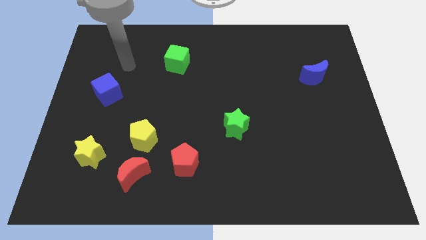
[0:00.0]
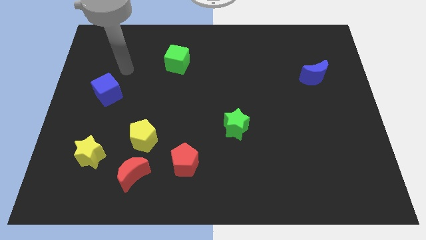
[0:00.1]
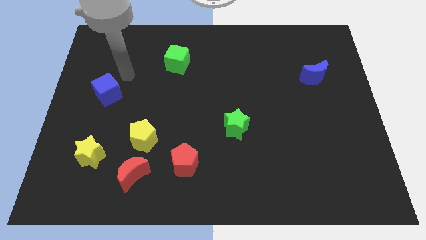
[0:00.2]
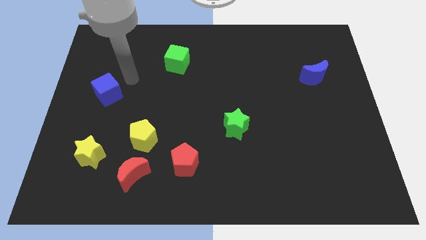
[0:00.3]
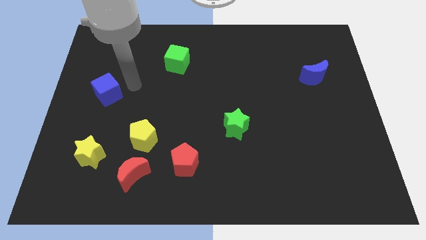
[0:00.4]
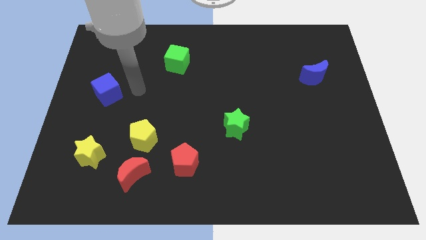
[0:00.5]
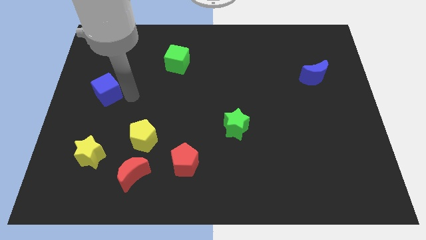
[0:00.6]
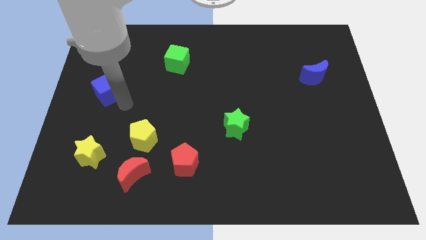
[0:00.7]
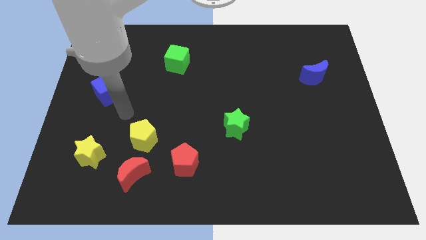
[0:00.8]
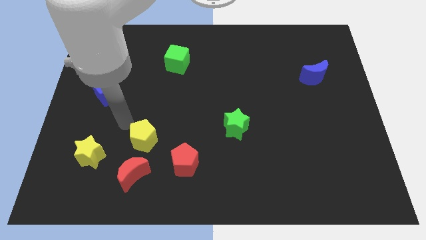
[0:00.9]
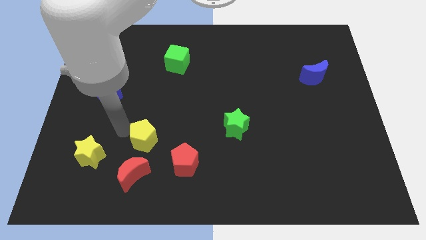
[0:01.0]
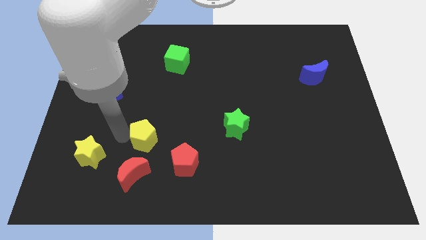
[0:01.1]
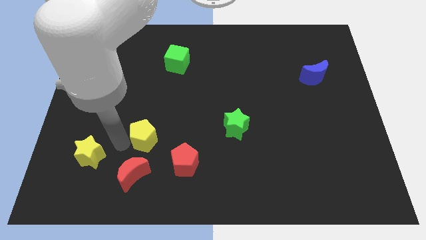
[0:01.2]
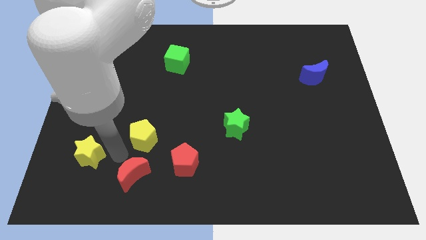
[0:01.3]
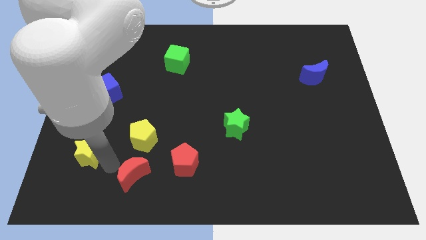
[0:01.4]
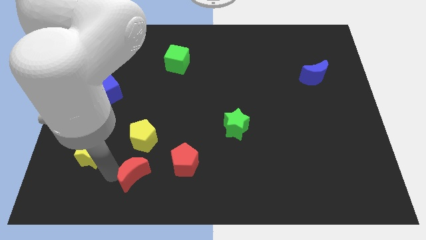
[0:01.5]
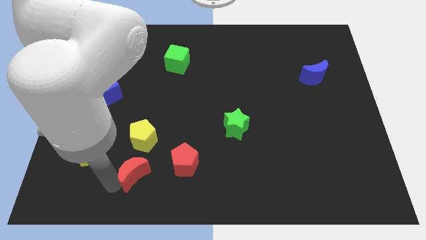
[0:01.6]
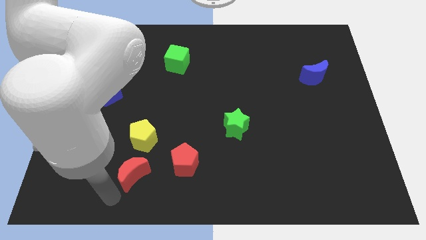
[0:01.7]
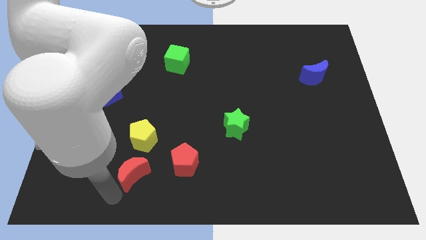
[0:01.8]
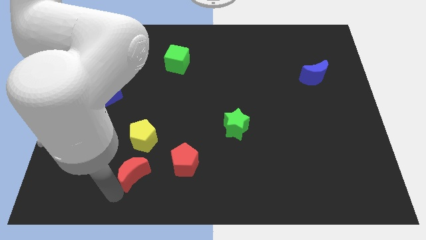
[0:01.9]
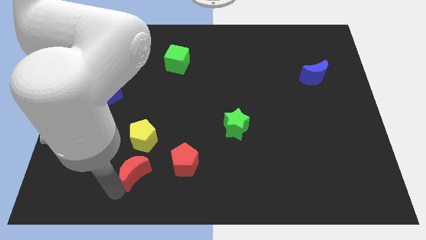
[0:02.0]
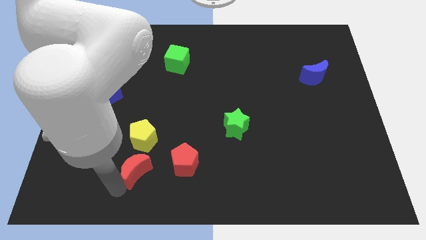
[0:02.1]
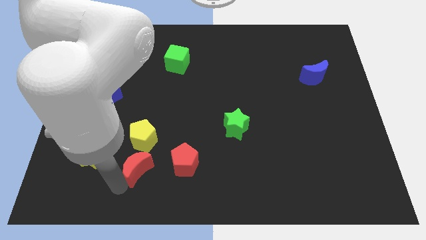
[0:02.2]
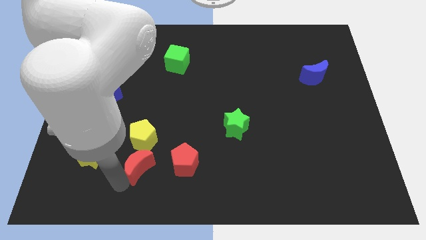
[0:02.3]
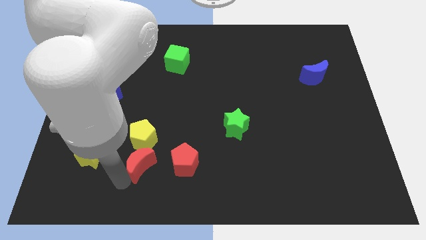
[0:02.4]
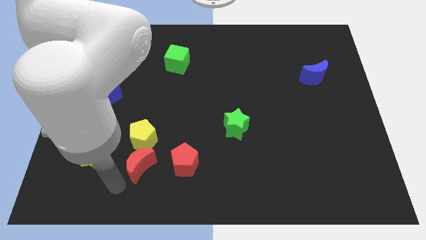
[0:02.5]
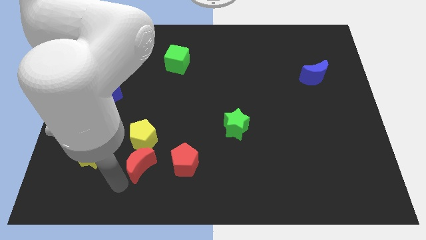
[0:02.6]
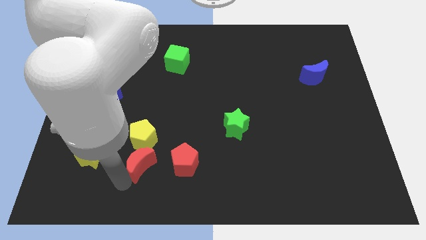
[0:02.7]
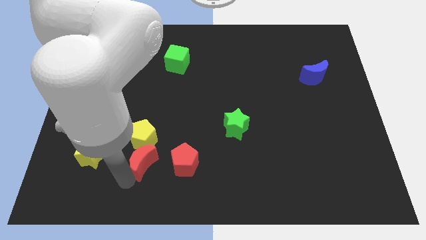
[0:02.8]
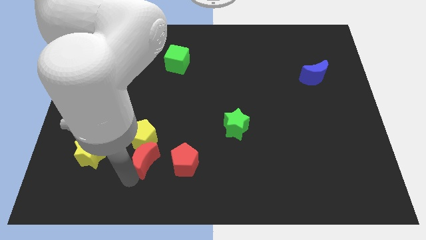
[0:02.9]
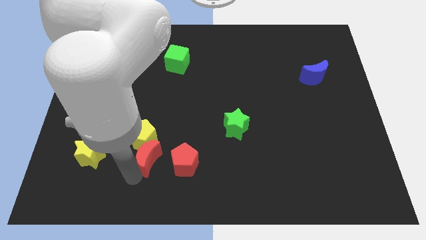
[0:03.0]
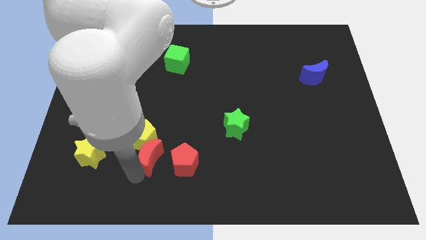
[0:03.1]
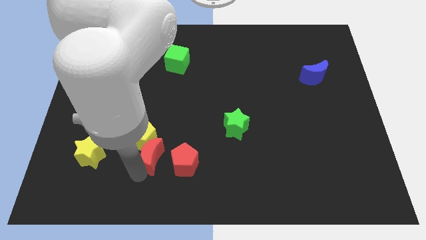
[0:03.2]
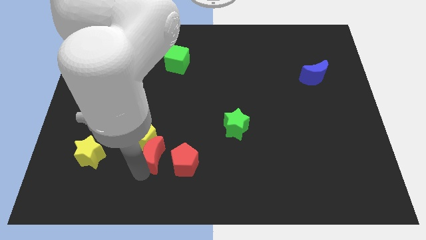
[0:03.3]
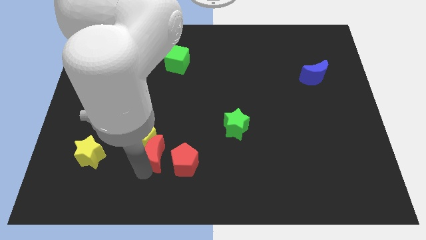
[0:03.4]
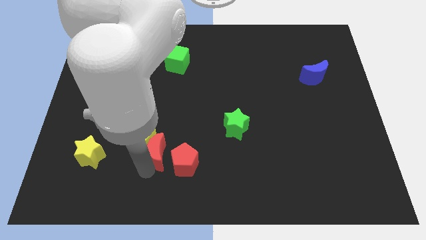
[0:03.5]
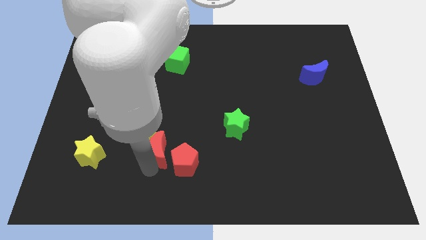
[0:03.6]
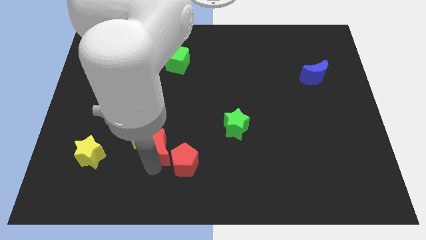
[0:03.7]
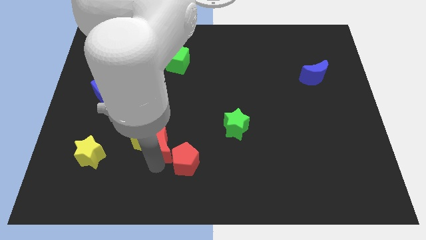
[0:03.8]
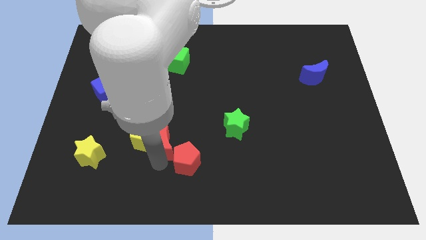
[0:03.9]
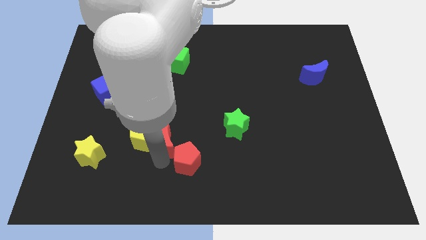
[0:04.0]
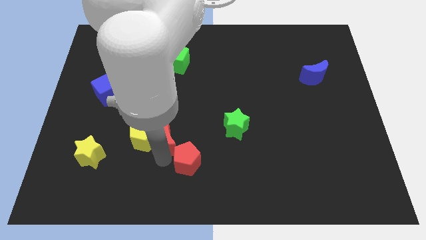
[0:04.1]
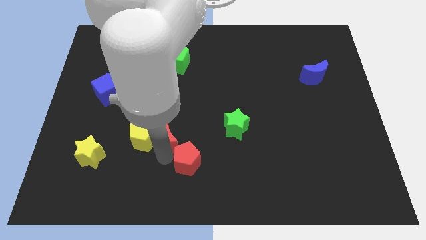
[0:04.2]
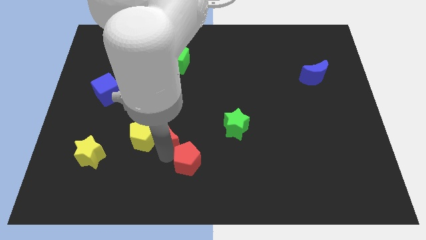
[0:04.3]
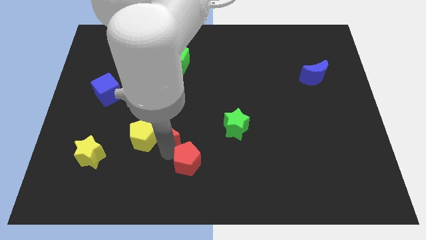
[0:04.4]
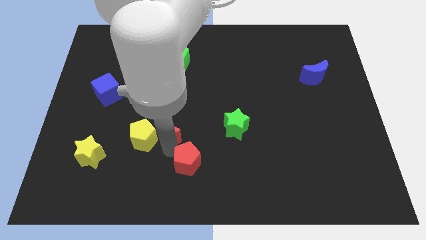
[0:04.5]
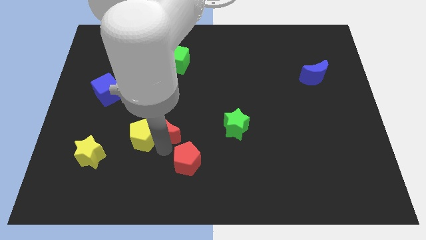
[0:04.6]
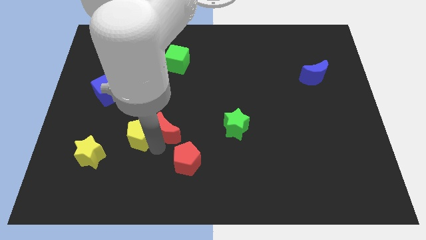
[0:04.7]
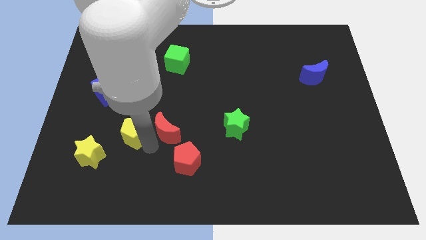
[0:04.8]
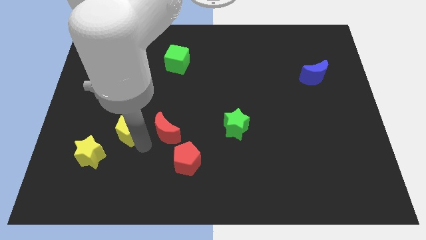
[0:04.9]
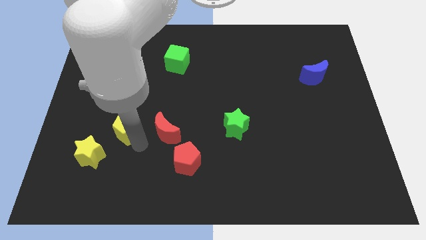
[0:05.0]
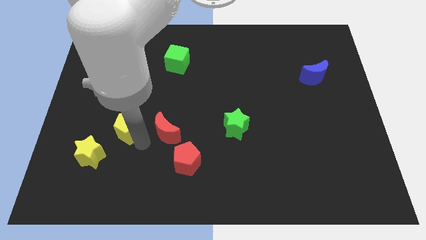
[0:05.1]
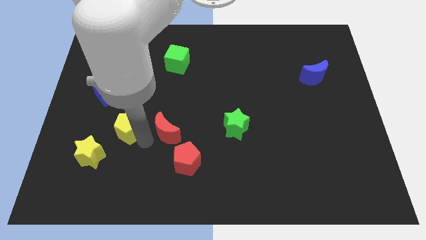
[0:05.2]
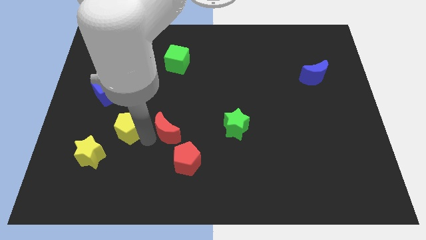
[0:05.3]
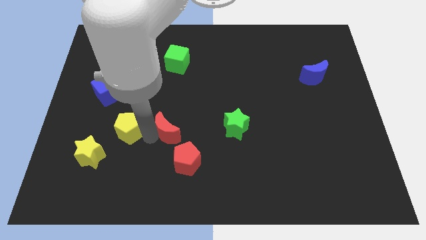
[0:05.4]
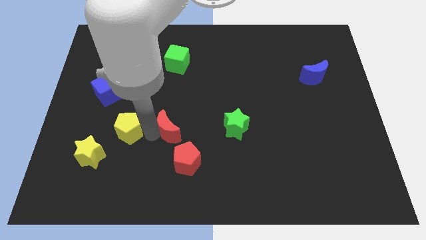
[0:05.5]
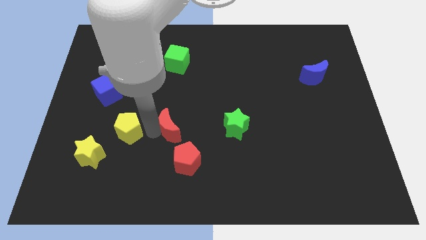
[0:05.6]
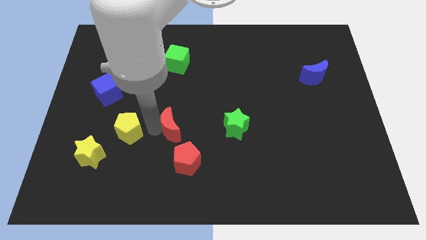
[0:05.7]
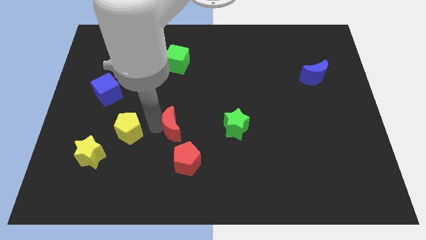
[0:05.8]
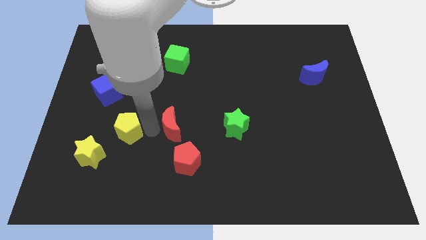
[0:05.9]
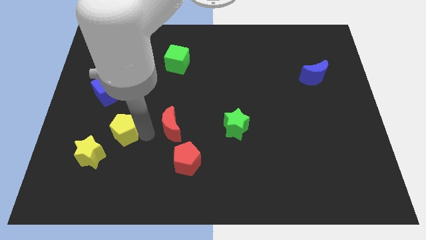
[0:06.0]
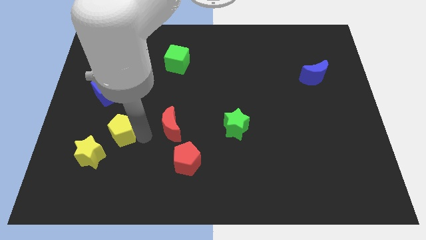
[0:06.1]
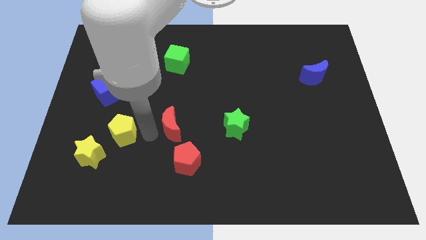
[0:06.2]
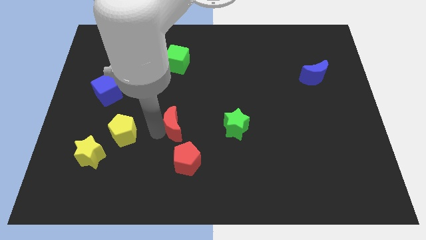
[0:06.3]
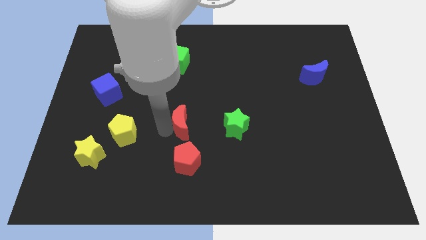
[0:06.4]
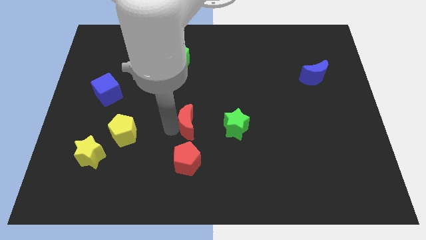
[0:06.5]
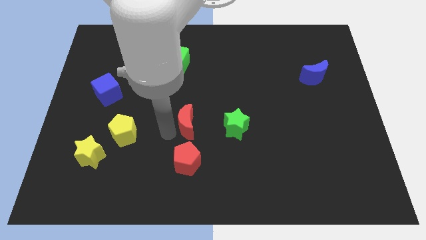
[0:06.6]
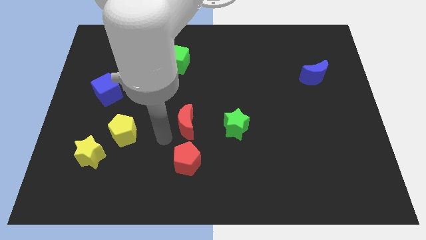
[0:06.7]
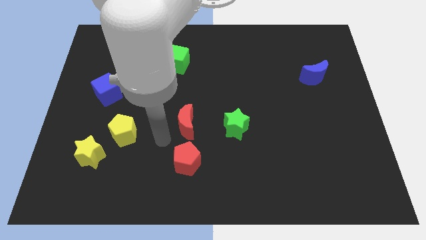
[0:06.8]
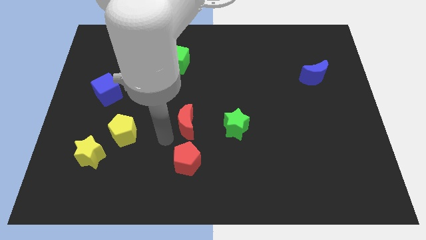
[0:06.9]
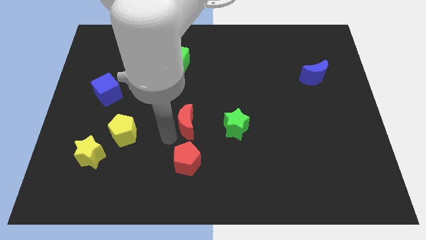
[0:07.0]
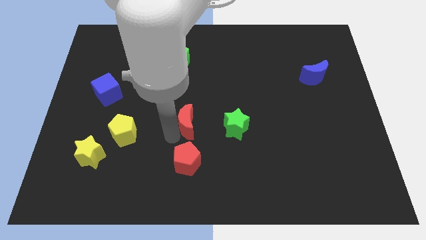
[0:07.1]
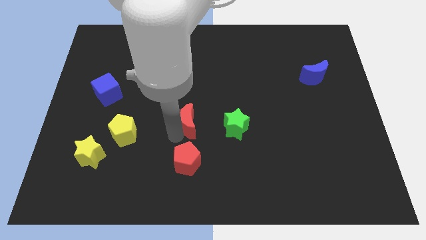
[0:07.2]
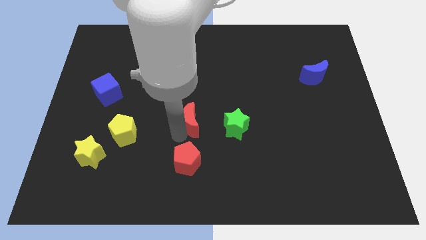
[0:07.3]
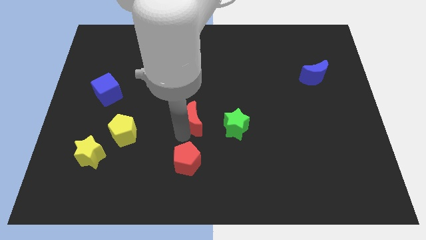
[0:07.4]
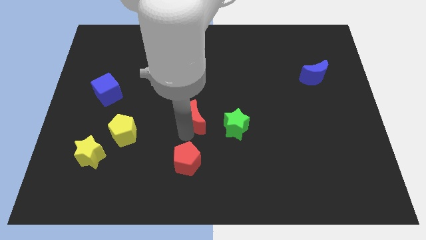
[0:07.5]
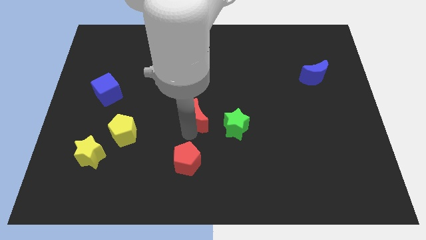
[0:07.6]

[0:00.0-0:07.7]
put the red moon to the top left side of the green star
